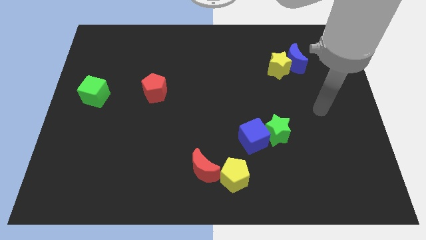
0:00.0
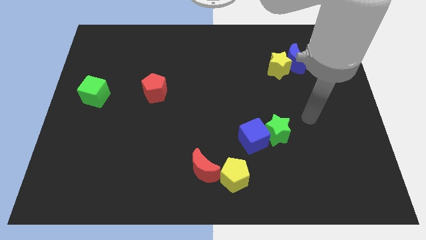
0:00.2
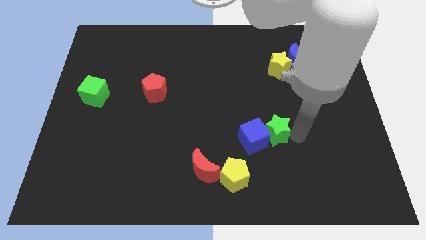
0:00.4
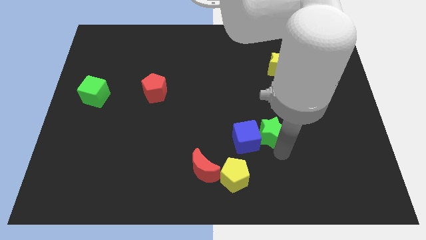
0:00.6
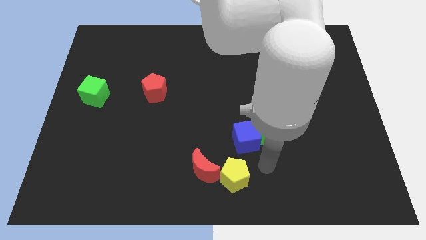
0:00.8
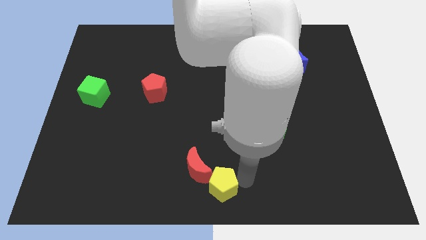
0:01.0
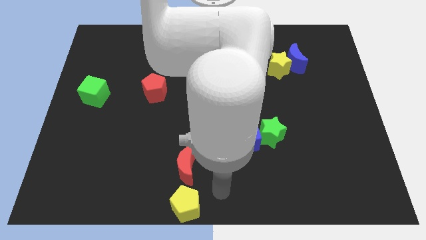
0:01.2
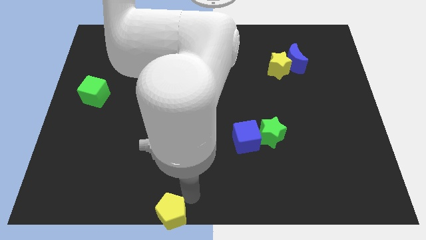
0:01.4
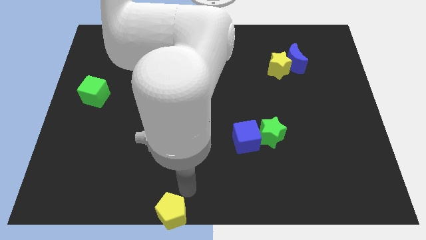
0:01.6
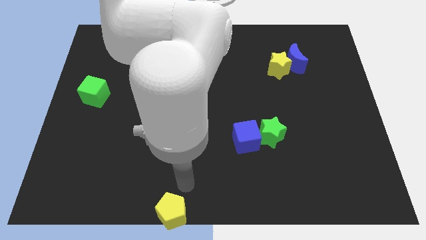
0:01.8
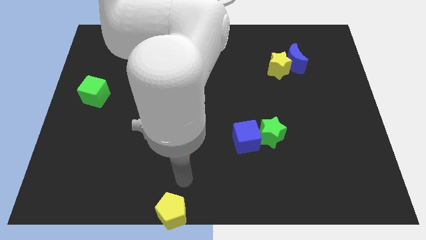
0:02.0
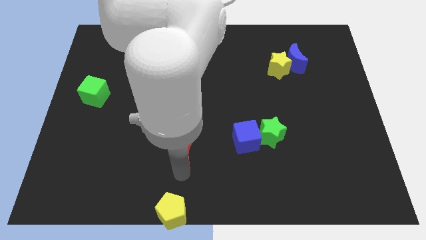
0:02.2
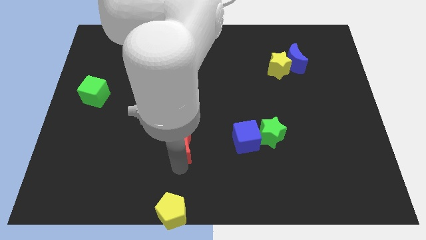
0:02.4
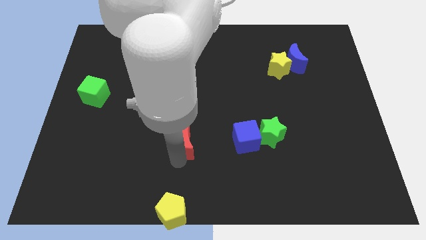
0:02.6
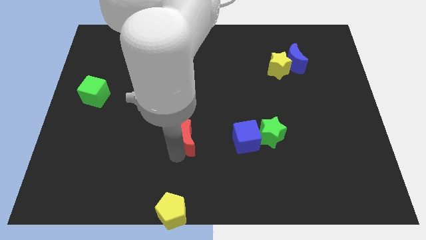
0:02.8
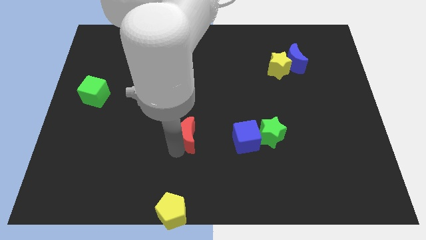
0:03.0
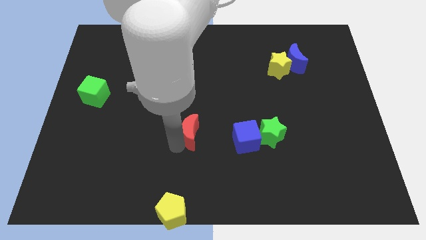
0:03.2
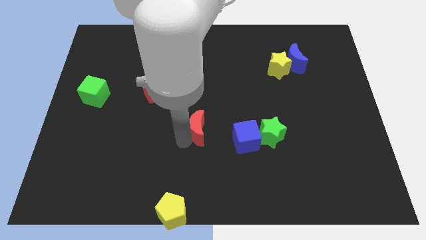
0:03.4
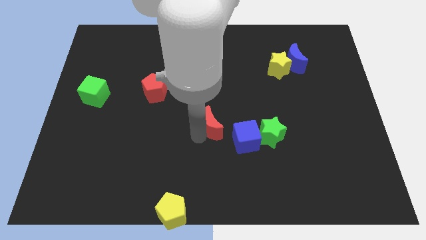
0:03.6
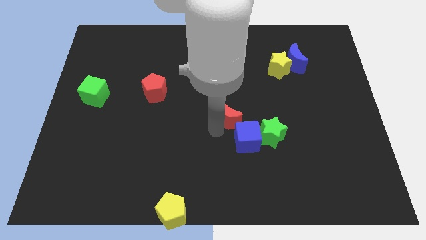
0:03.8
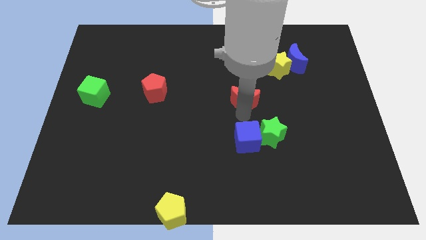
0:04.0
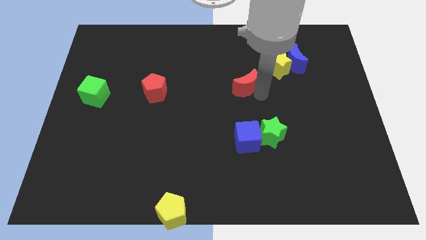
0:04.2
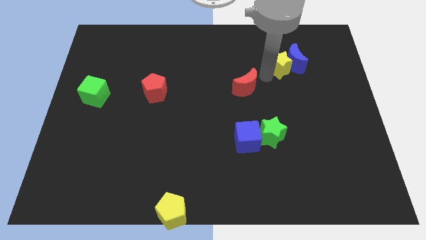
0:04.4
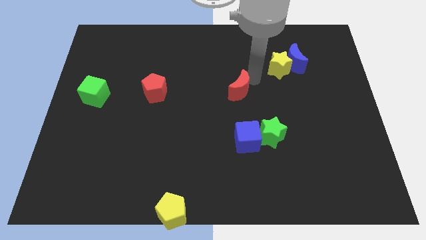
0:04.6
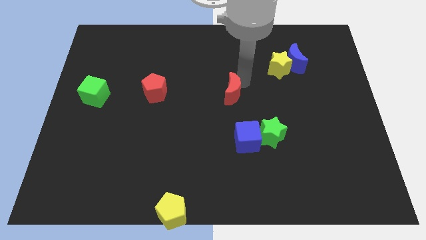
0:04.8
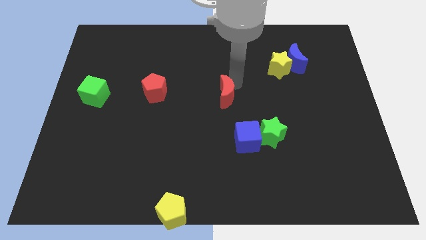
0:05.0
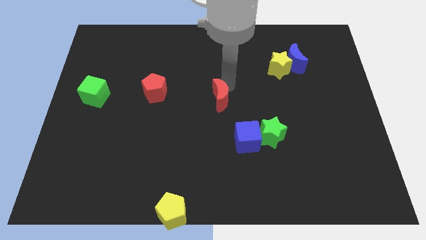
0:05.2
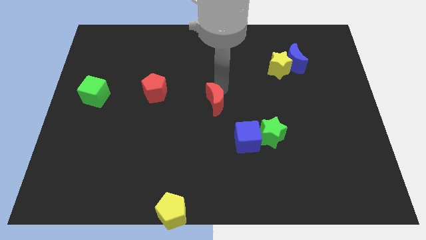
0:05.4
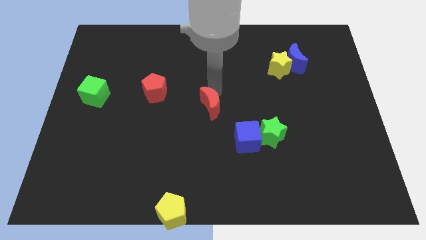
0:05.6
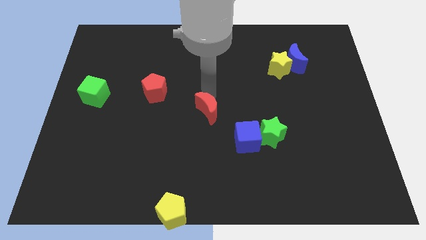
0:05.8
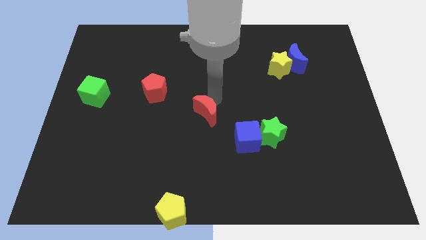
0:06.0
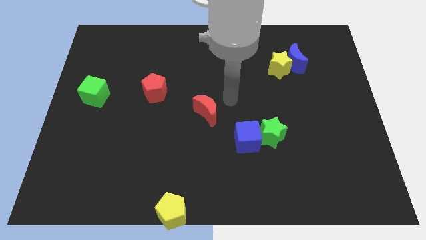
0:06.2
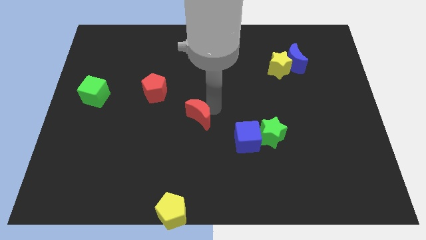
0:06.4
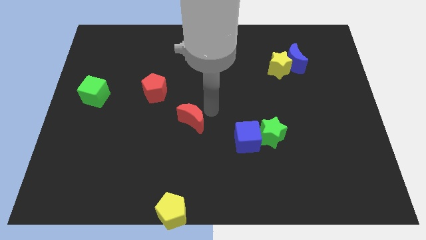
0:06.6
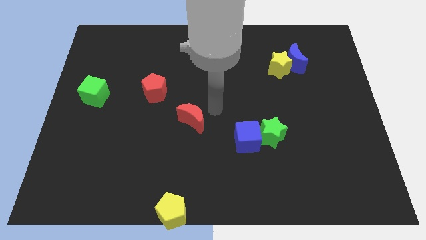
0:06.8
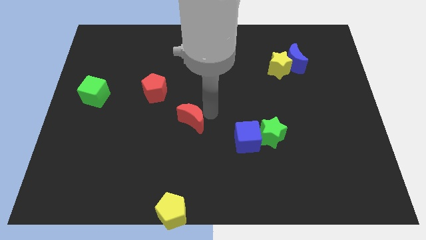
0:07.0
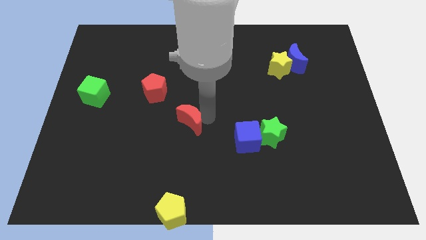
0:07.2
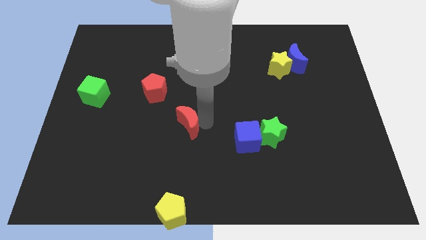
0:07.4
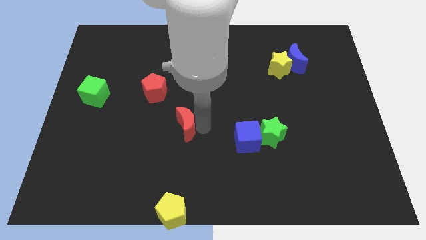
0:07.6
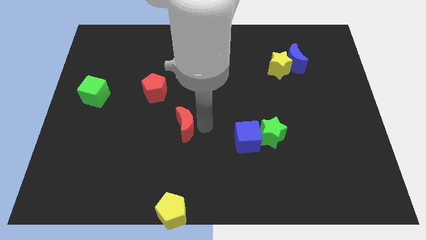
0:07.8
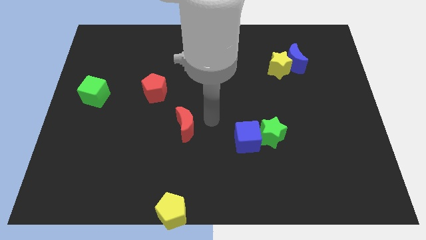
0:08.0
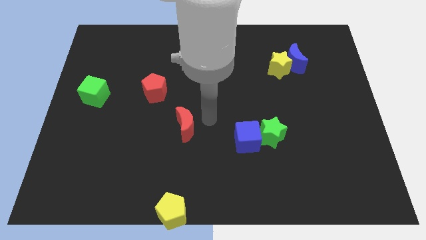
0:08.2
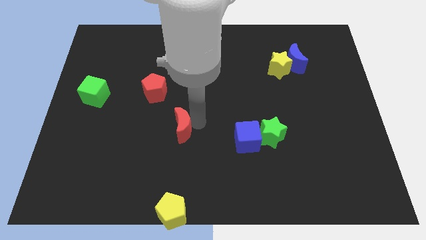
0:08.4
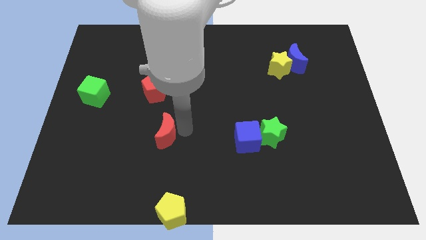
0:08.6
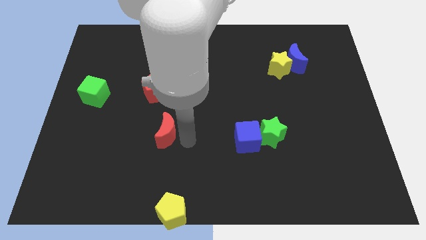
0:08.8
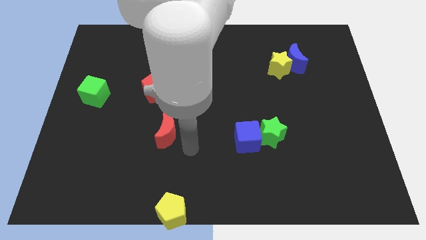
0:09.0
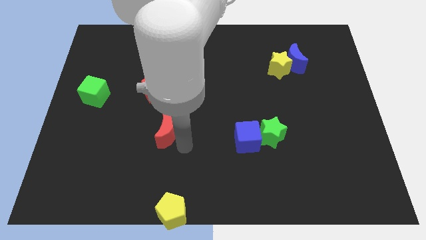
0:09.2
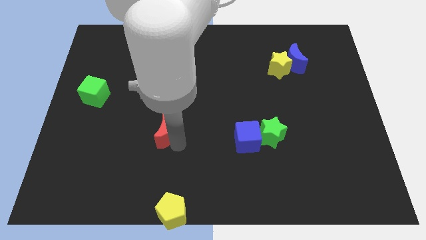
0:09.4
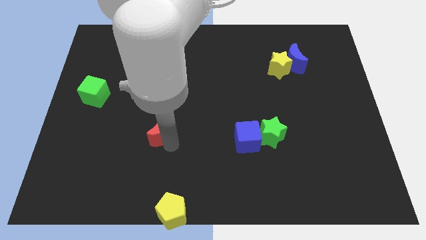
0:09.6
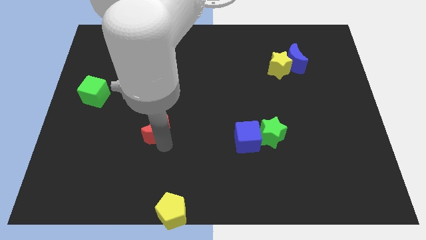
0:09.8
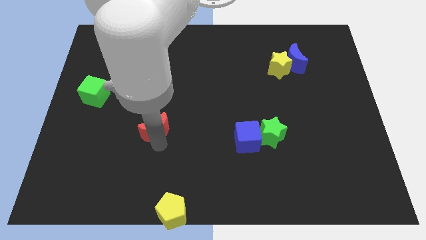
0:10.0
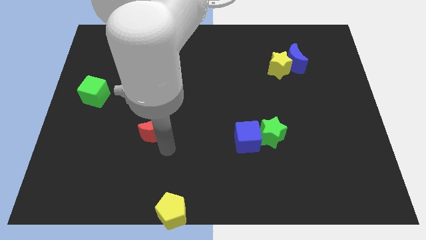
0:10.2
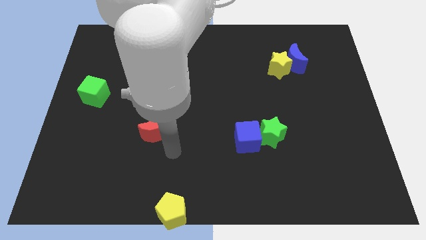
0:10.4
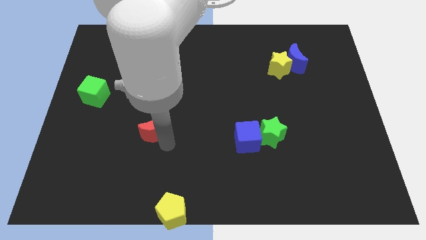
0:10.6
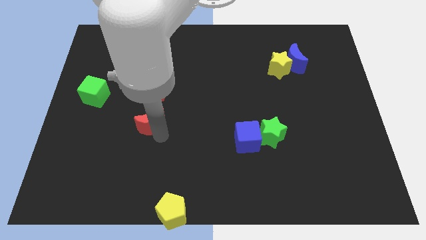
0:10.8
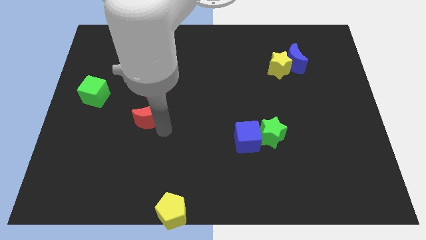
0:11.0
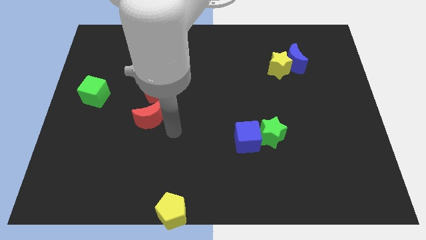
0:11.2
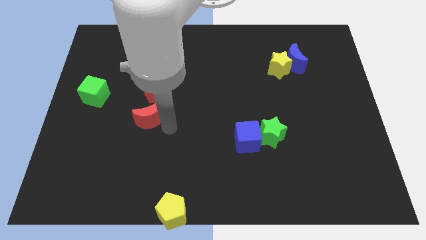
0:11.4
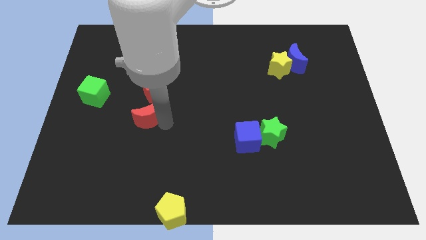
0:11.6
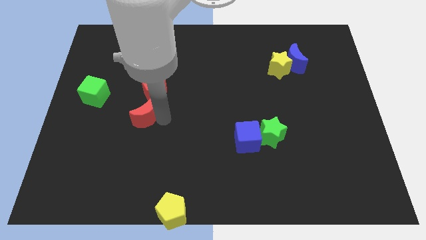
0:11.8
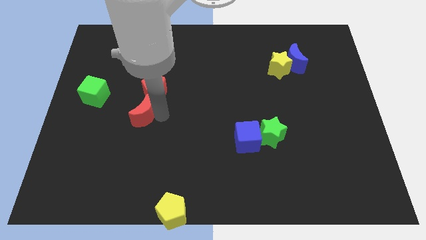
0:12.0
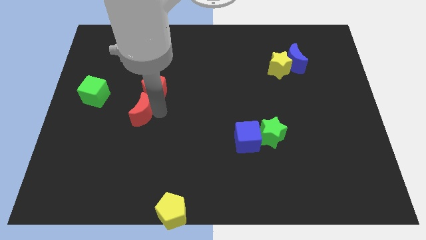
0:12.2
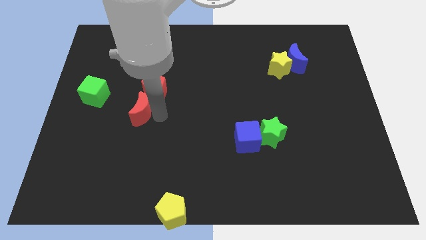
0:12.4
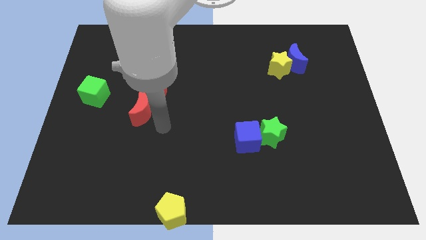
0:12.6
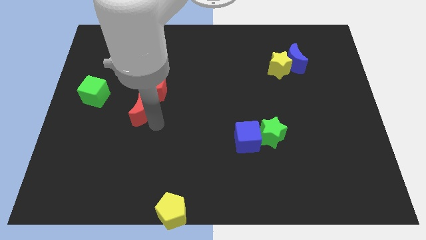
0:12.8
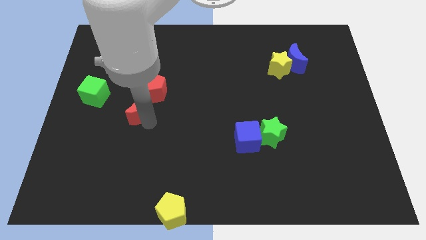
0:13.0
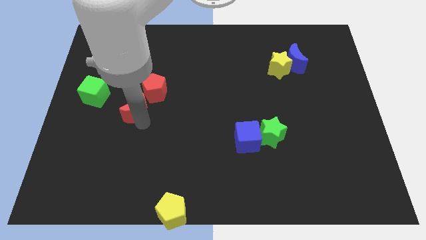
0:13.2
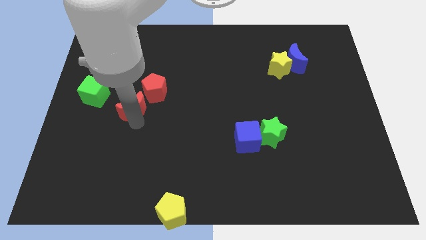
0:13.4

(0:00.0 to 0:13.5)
put the red moon to the right side of the green cube

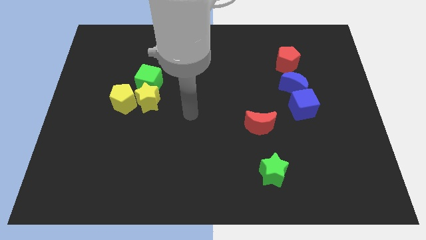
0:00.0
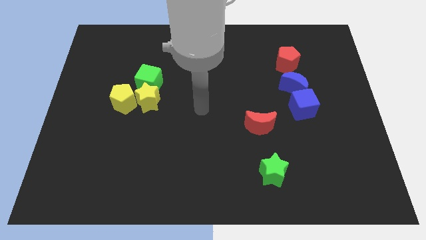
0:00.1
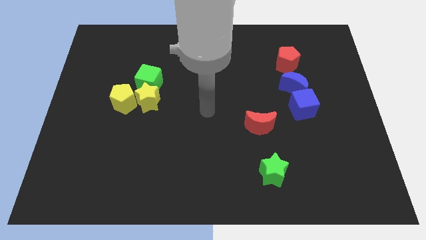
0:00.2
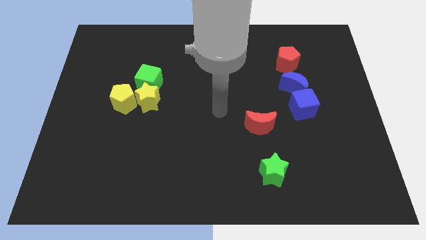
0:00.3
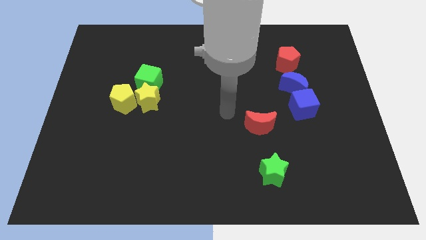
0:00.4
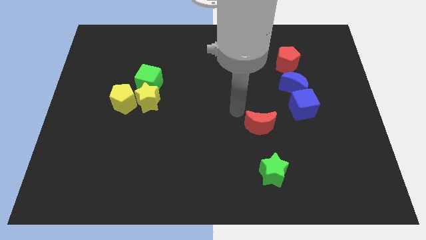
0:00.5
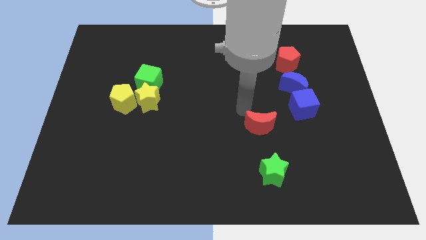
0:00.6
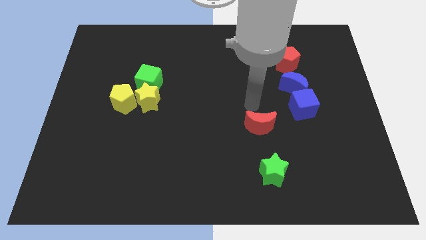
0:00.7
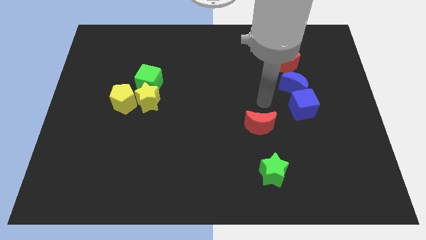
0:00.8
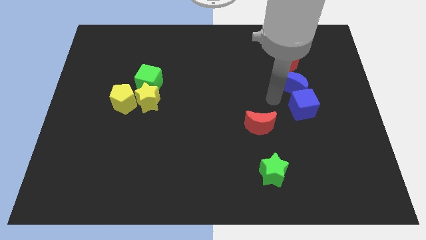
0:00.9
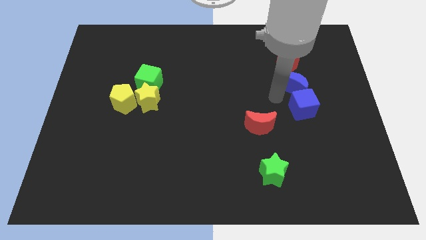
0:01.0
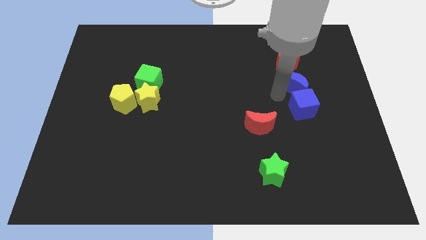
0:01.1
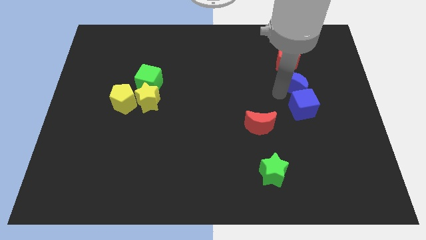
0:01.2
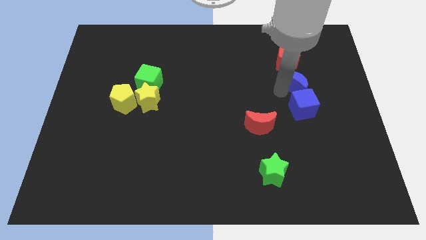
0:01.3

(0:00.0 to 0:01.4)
put the blue moon to the bottom right side of the red pentagon

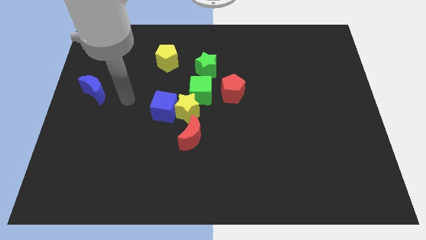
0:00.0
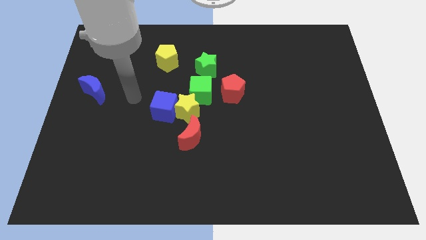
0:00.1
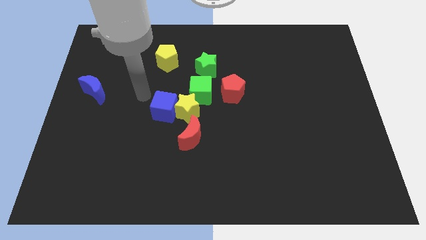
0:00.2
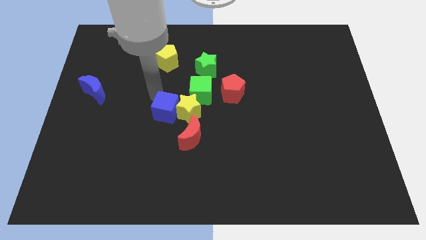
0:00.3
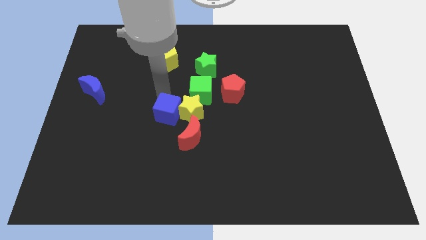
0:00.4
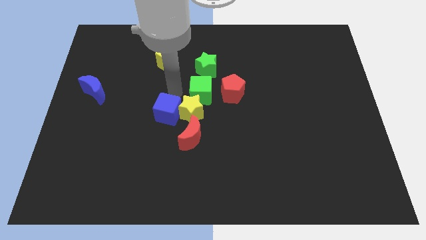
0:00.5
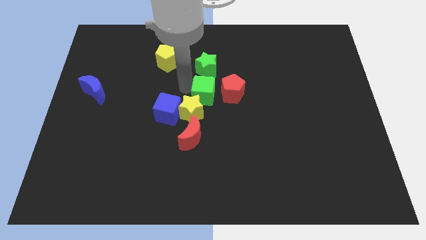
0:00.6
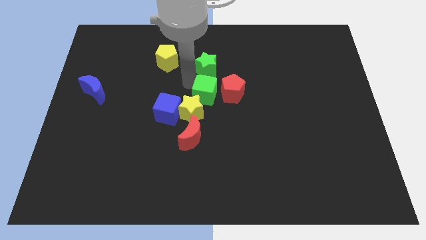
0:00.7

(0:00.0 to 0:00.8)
put the red pentagon to the bottom right side of the green cube
